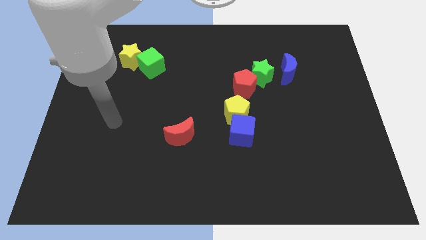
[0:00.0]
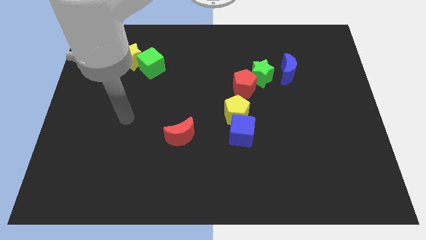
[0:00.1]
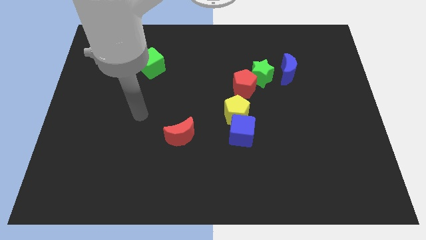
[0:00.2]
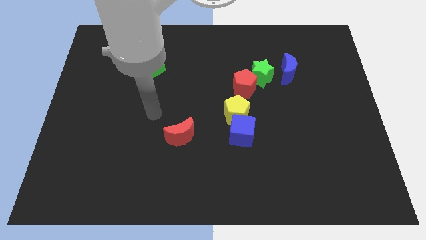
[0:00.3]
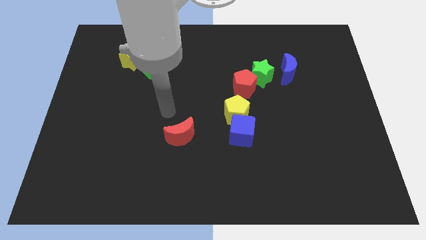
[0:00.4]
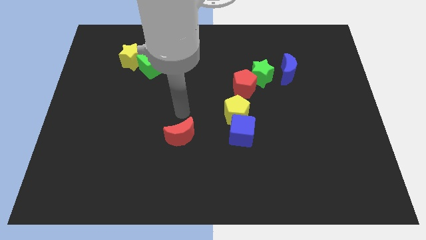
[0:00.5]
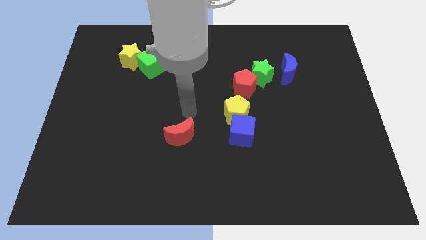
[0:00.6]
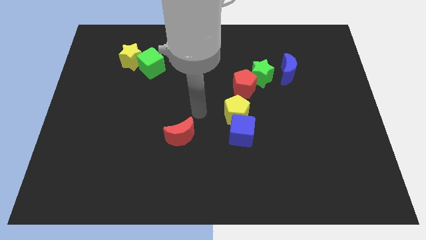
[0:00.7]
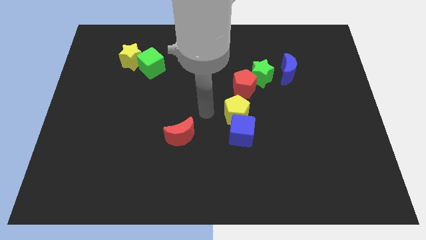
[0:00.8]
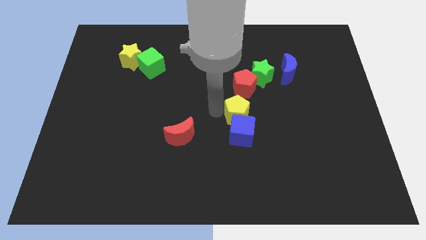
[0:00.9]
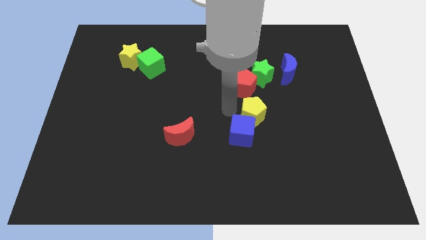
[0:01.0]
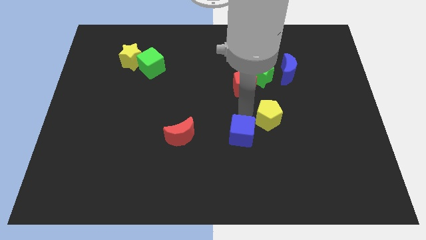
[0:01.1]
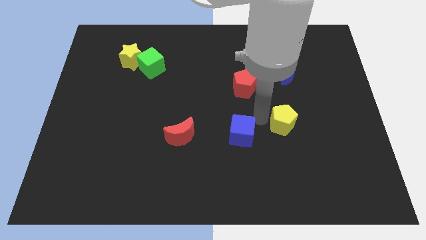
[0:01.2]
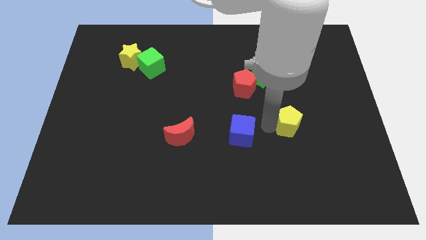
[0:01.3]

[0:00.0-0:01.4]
separate the blue cube from the yellow pentagon

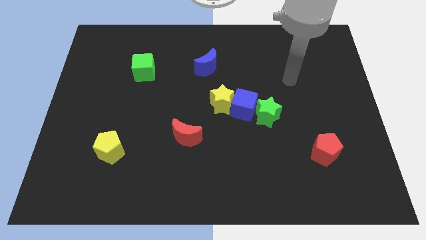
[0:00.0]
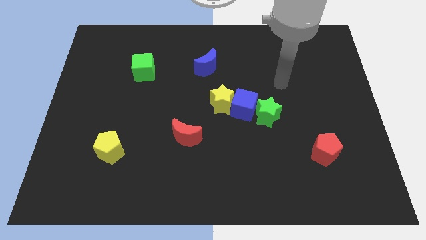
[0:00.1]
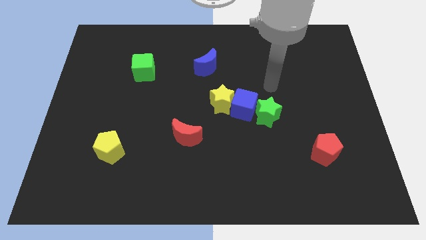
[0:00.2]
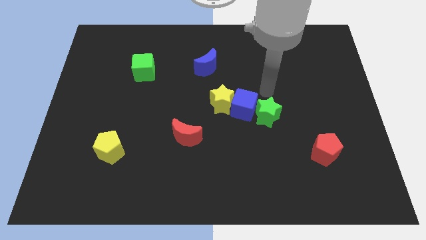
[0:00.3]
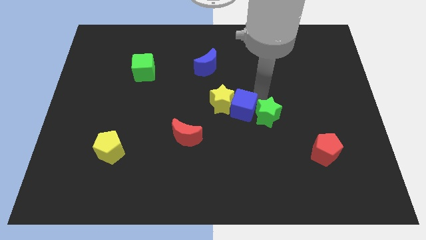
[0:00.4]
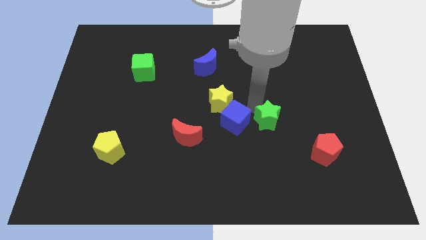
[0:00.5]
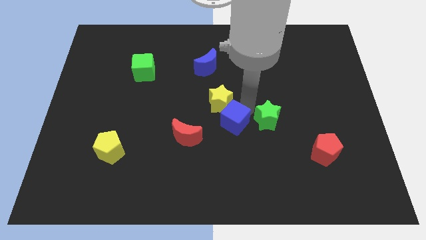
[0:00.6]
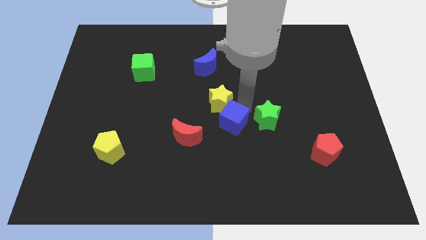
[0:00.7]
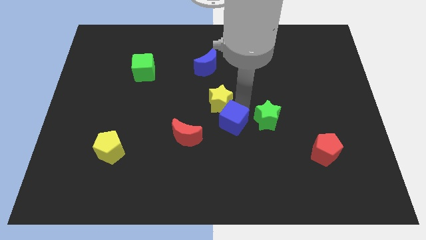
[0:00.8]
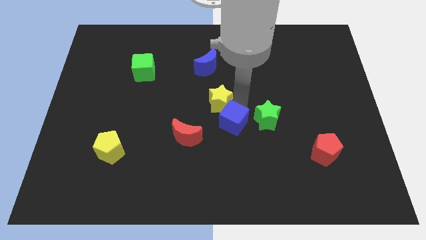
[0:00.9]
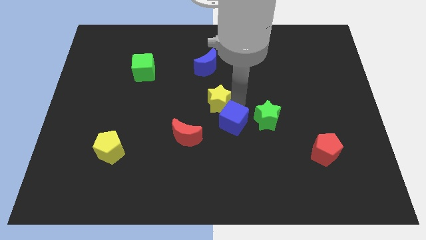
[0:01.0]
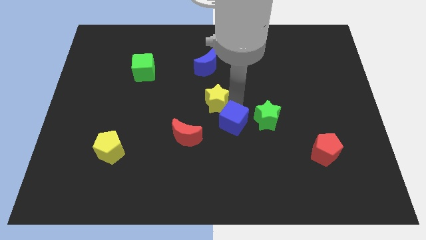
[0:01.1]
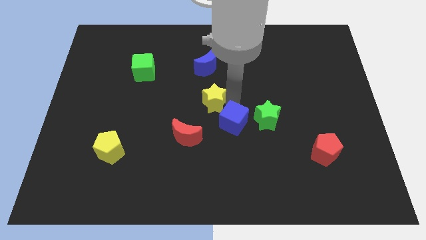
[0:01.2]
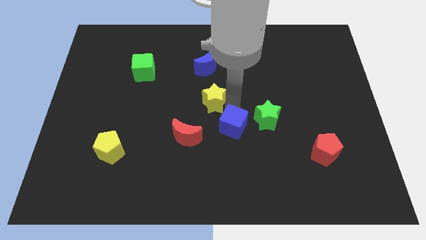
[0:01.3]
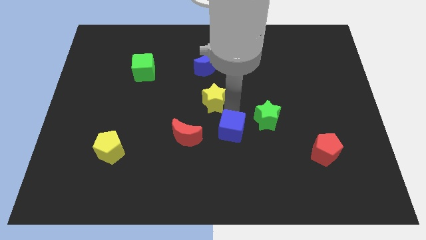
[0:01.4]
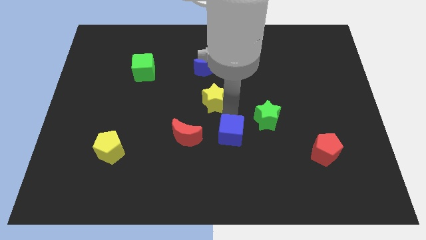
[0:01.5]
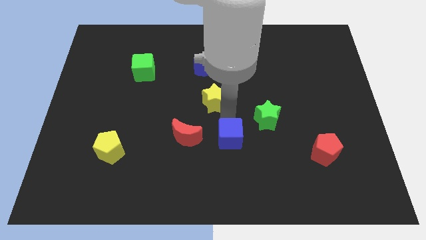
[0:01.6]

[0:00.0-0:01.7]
move the yellow star away from the blue cube

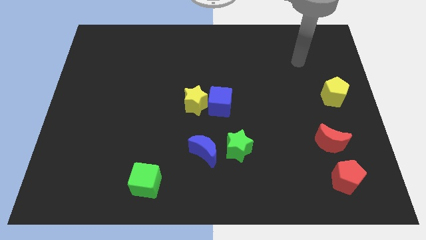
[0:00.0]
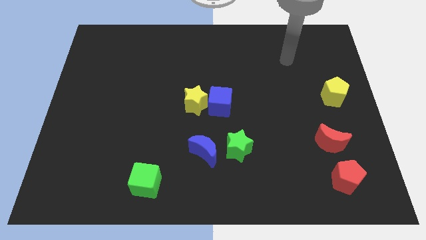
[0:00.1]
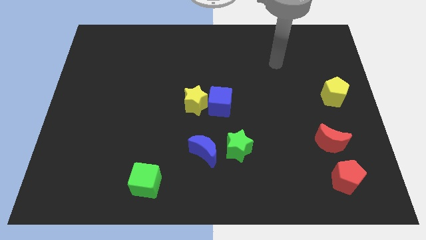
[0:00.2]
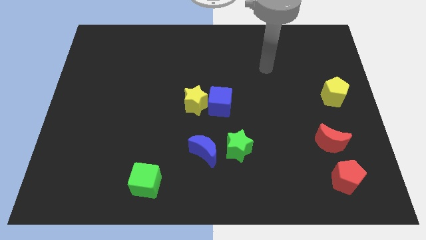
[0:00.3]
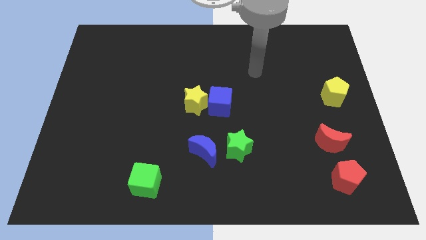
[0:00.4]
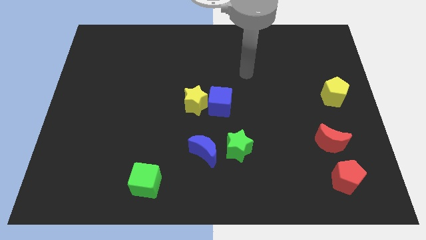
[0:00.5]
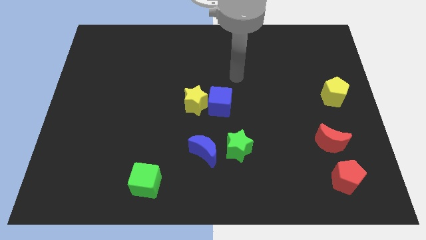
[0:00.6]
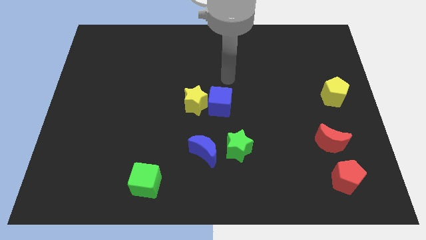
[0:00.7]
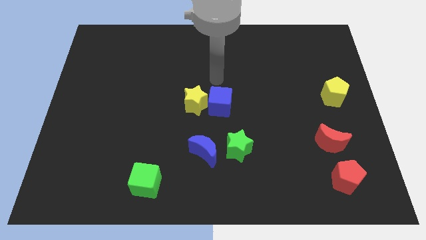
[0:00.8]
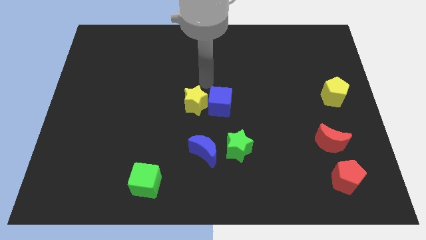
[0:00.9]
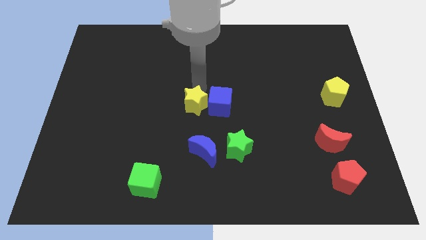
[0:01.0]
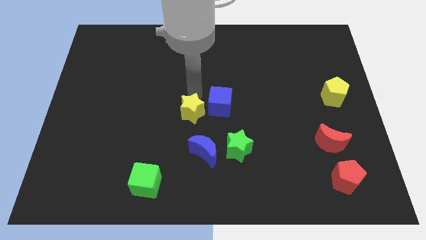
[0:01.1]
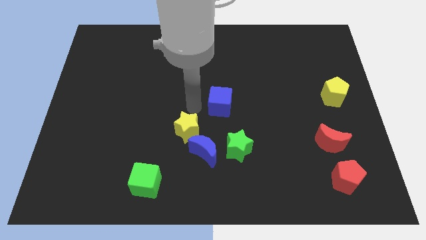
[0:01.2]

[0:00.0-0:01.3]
separate the blue cube from the yellow star

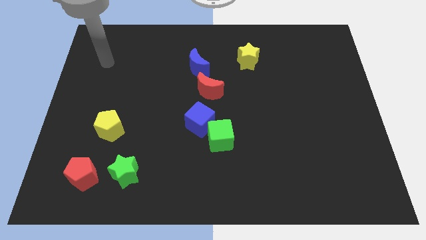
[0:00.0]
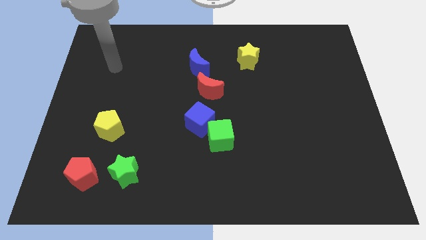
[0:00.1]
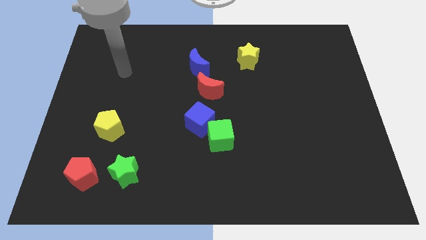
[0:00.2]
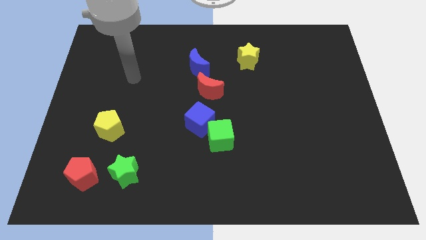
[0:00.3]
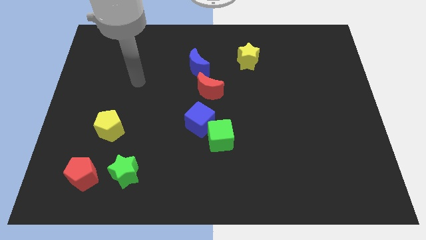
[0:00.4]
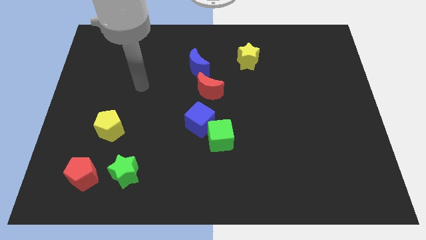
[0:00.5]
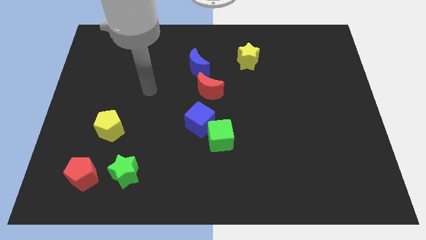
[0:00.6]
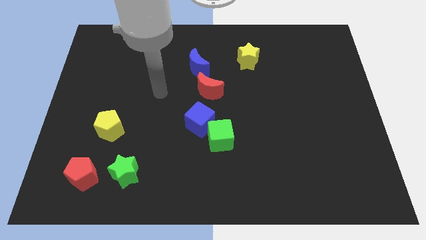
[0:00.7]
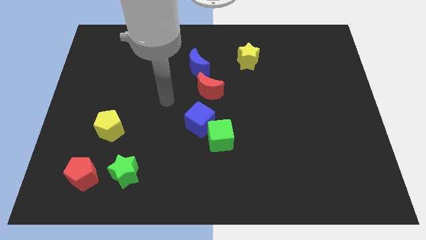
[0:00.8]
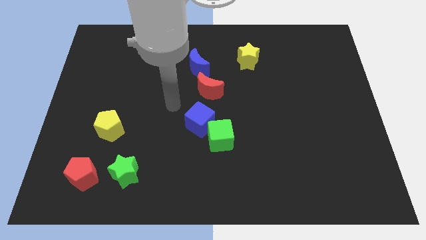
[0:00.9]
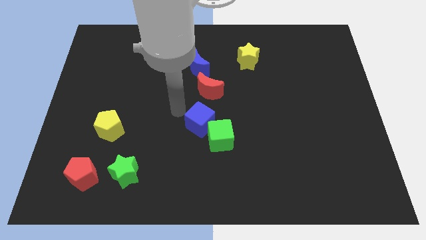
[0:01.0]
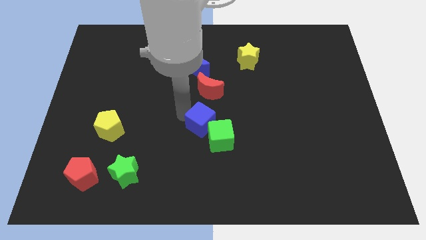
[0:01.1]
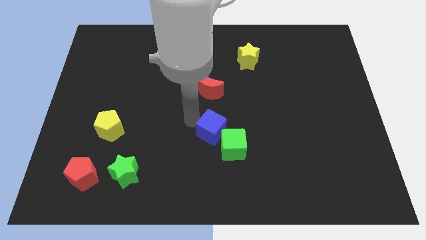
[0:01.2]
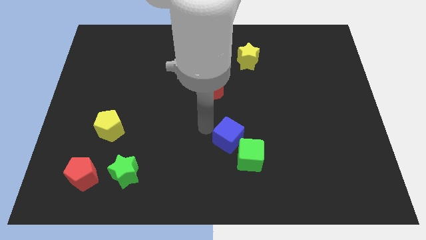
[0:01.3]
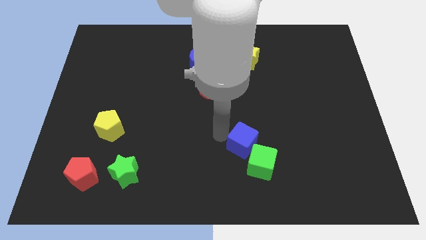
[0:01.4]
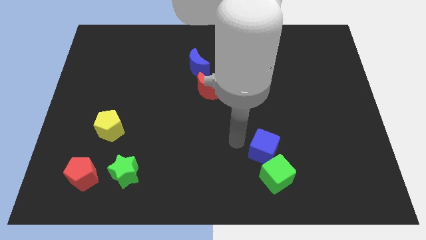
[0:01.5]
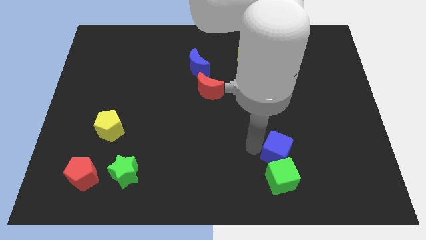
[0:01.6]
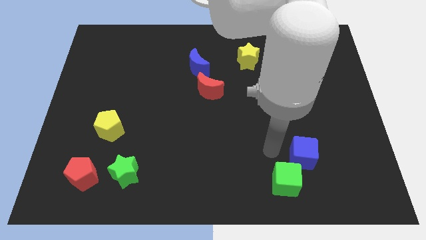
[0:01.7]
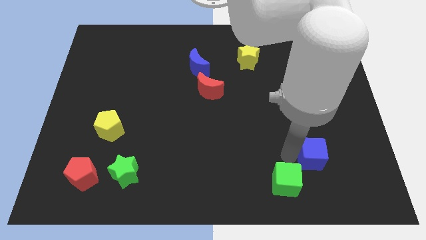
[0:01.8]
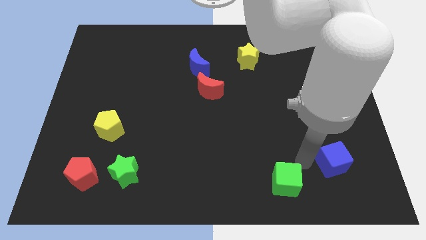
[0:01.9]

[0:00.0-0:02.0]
pull the green cube apart from the blue cube

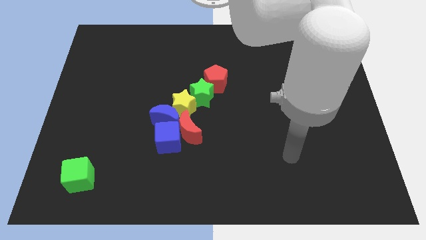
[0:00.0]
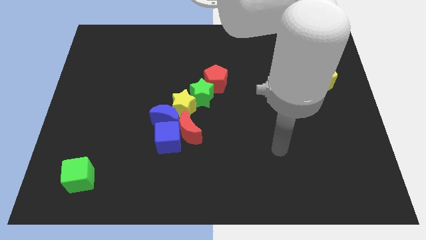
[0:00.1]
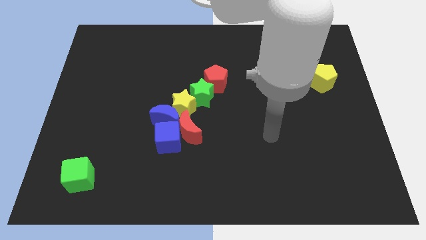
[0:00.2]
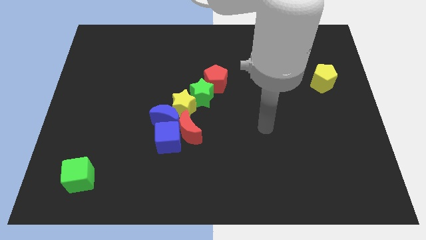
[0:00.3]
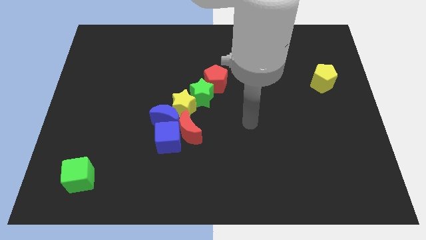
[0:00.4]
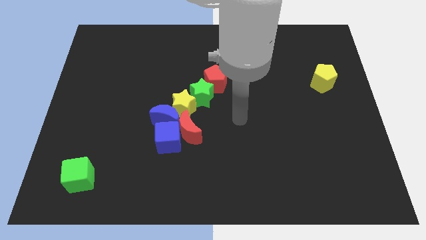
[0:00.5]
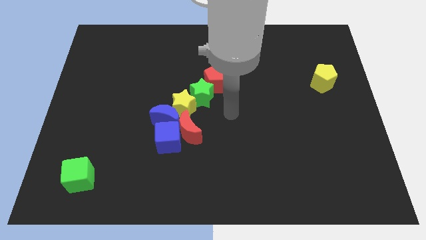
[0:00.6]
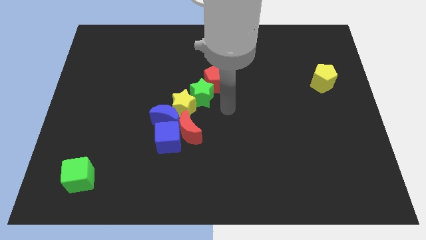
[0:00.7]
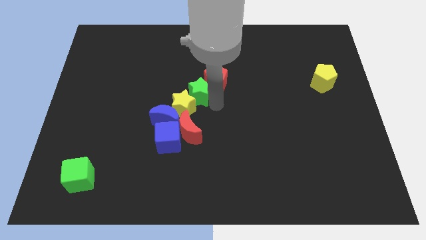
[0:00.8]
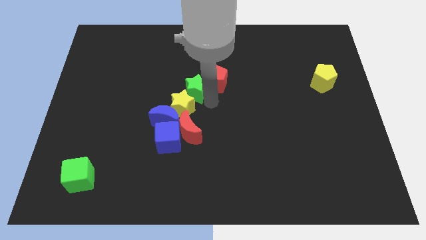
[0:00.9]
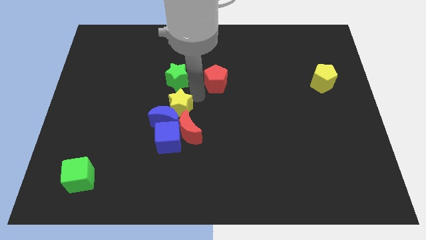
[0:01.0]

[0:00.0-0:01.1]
move the red pentagon away from the green star

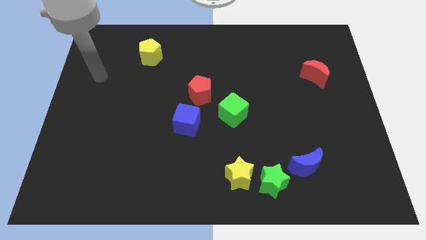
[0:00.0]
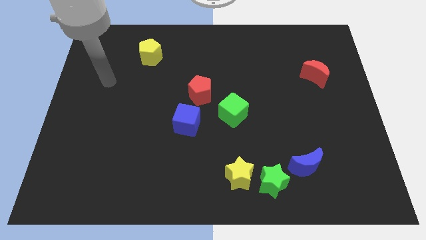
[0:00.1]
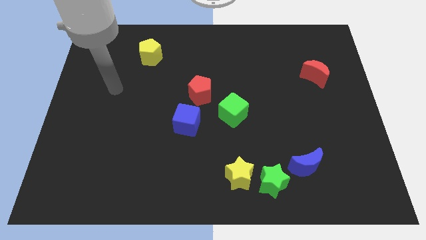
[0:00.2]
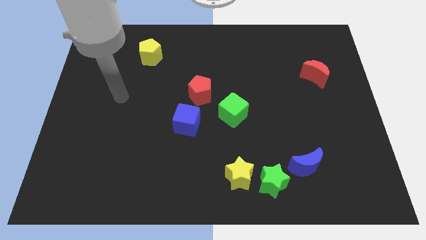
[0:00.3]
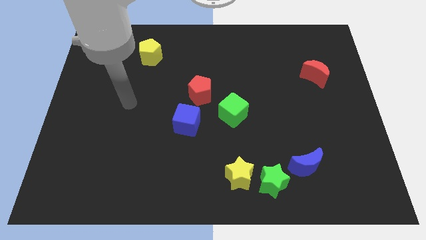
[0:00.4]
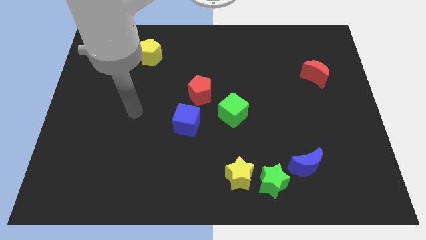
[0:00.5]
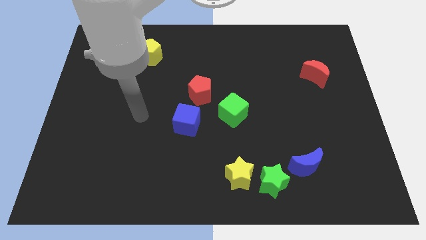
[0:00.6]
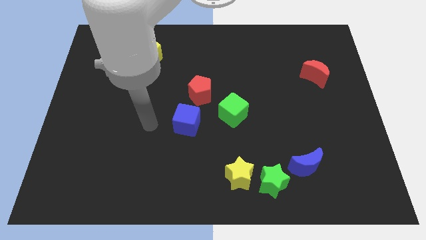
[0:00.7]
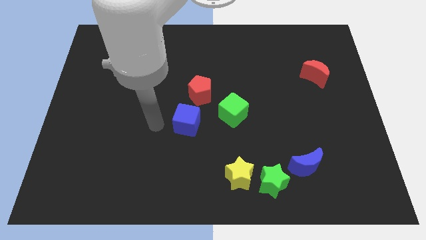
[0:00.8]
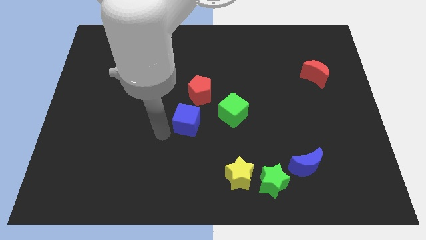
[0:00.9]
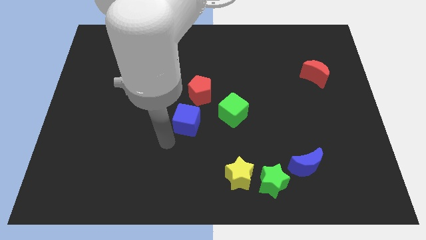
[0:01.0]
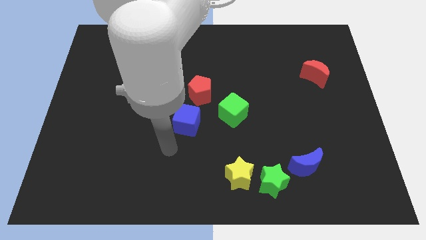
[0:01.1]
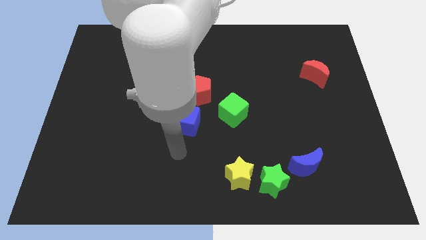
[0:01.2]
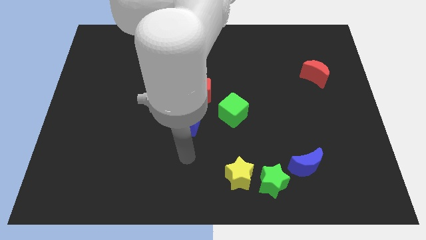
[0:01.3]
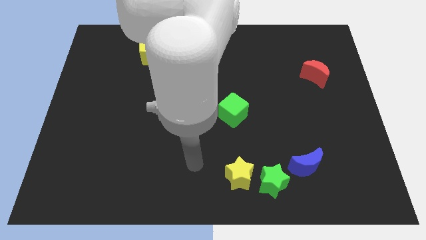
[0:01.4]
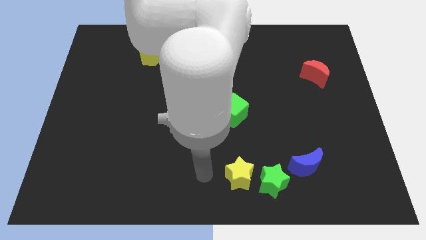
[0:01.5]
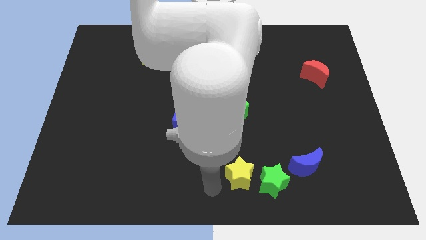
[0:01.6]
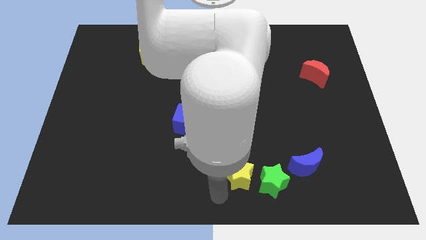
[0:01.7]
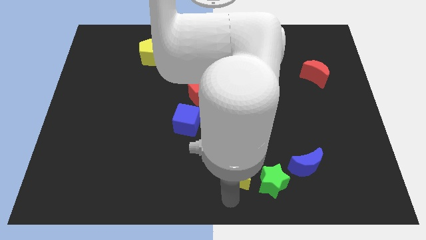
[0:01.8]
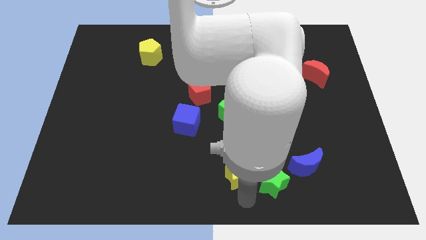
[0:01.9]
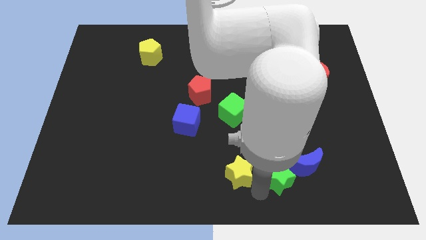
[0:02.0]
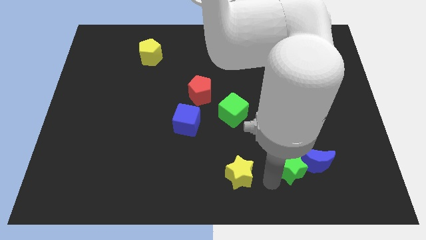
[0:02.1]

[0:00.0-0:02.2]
move the yellow star away from the green star
